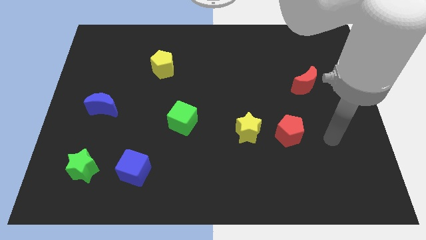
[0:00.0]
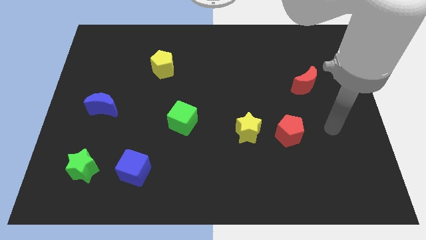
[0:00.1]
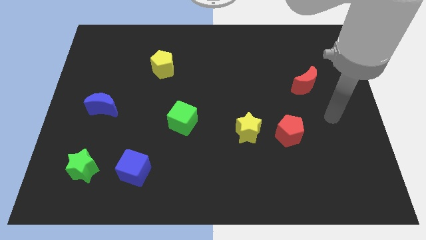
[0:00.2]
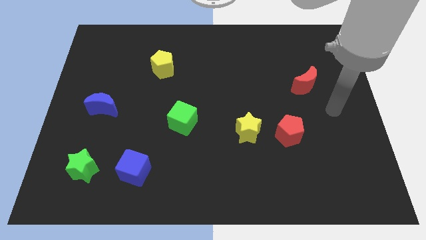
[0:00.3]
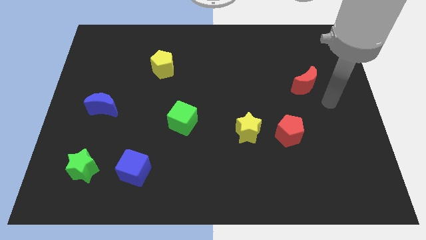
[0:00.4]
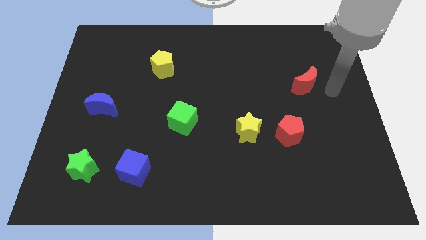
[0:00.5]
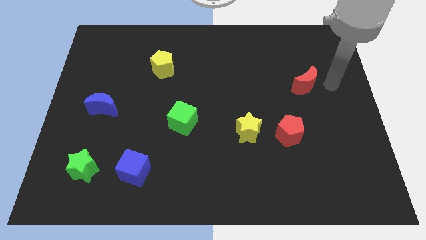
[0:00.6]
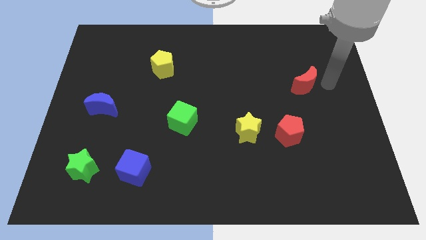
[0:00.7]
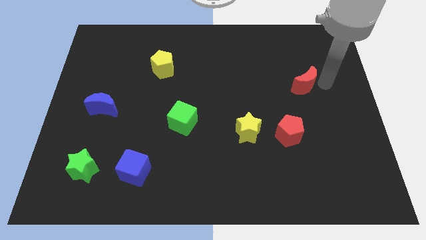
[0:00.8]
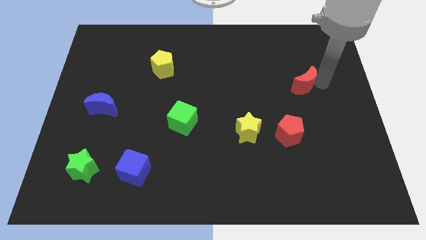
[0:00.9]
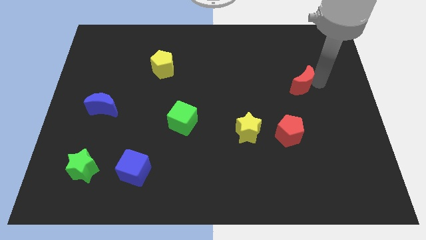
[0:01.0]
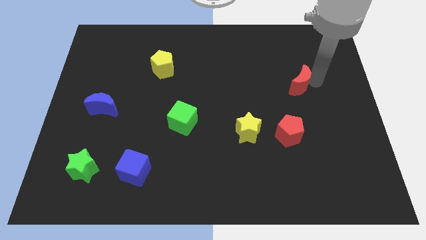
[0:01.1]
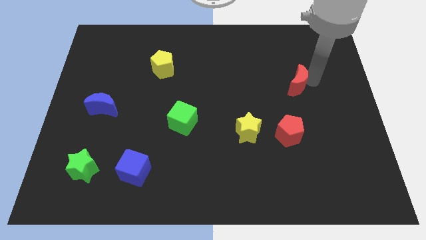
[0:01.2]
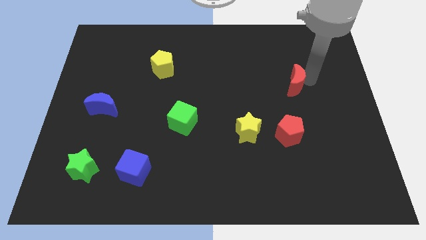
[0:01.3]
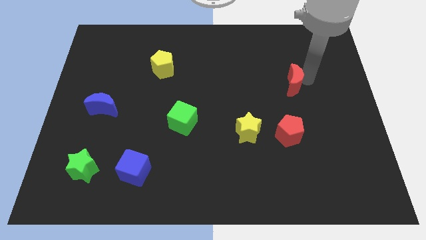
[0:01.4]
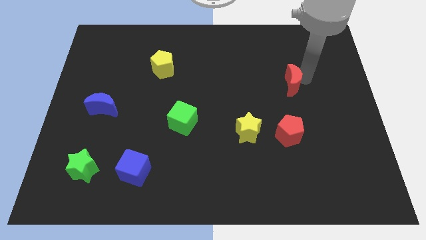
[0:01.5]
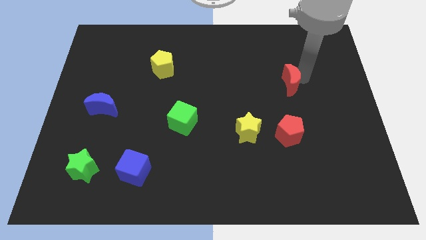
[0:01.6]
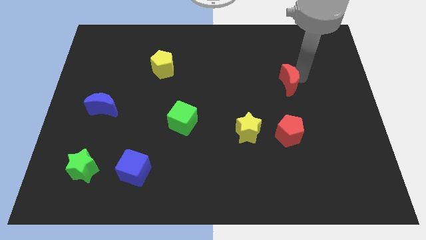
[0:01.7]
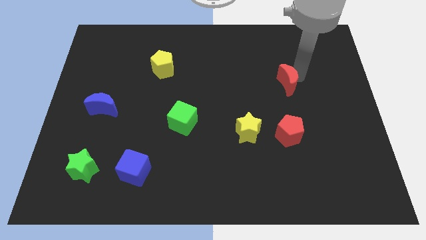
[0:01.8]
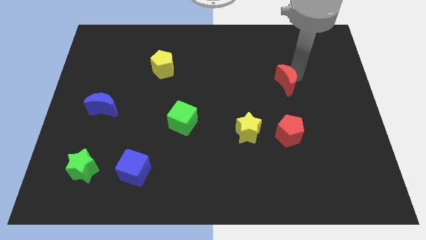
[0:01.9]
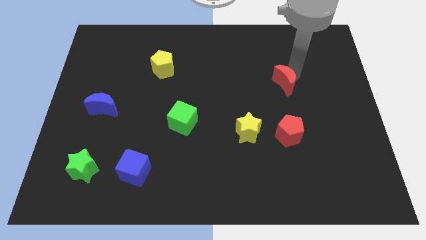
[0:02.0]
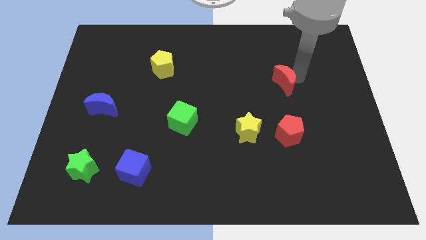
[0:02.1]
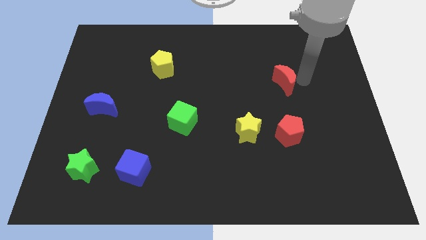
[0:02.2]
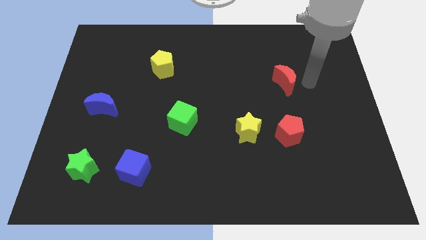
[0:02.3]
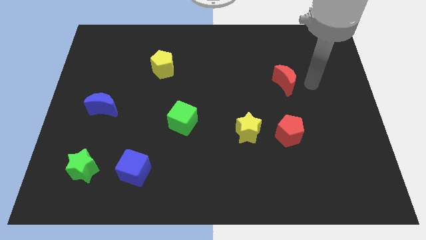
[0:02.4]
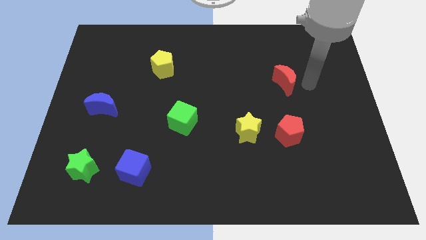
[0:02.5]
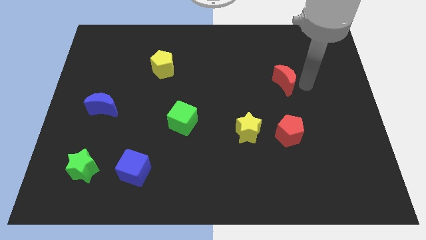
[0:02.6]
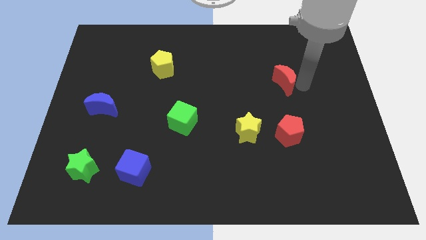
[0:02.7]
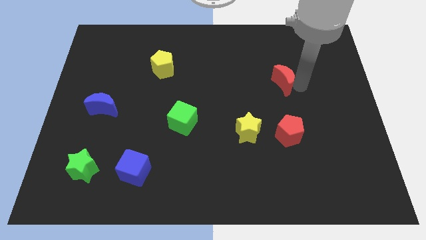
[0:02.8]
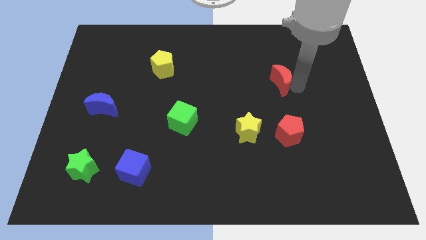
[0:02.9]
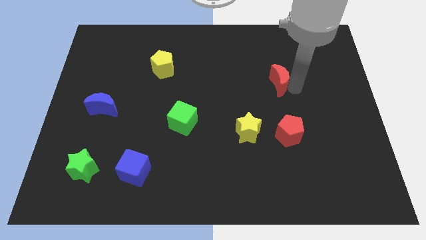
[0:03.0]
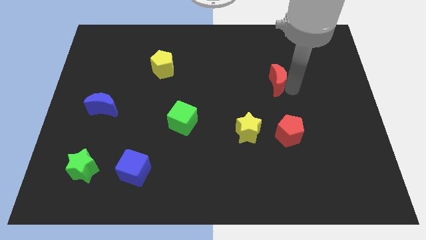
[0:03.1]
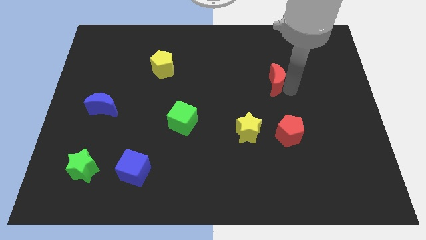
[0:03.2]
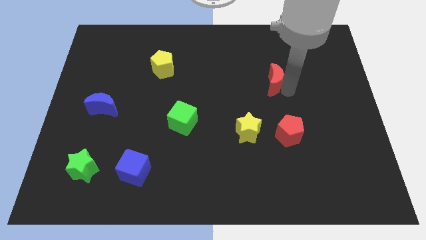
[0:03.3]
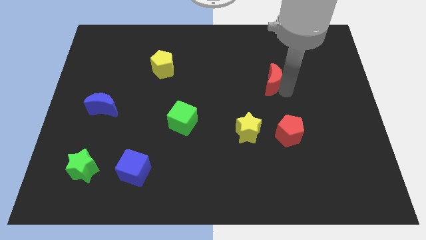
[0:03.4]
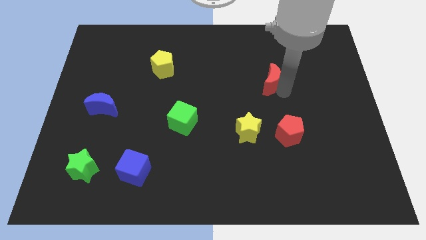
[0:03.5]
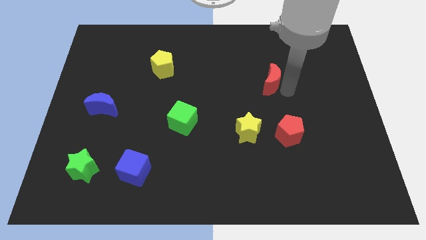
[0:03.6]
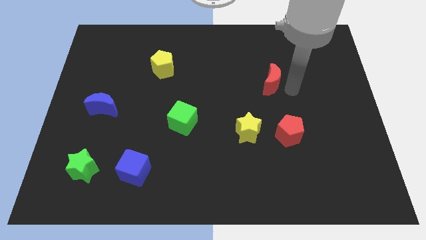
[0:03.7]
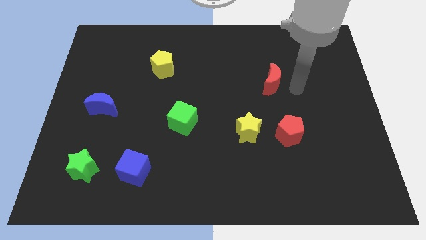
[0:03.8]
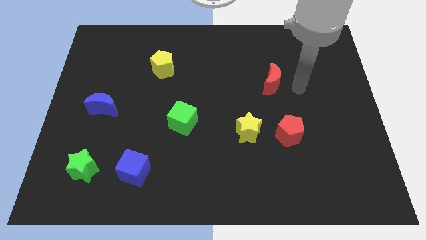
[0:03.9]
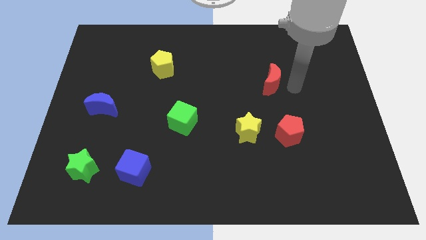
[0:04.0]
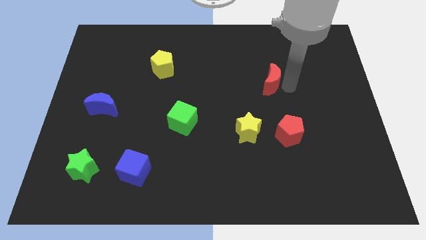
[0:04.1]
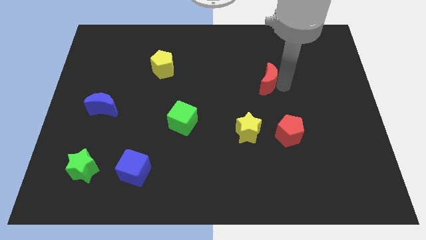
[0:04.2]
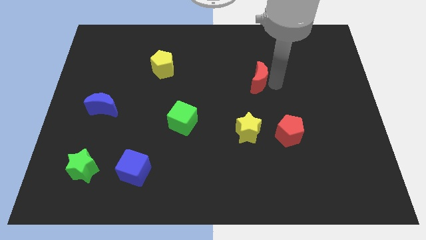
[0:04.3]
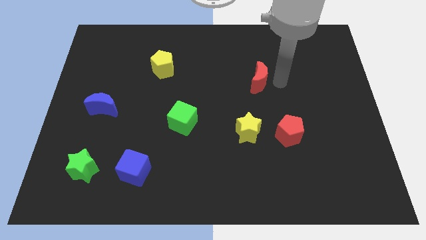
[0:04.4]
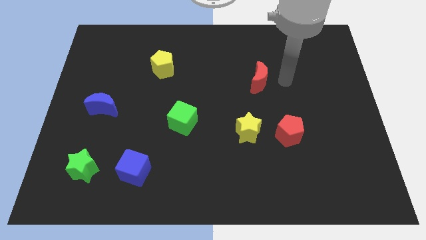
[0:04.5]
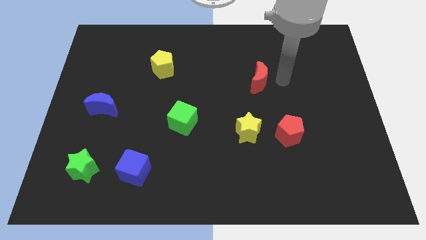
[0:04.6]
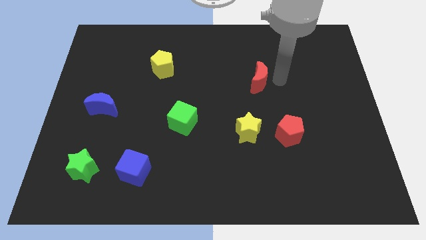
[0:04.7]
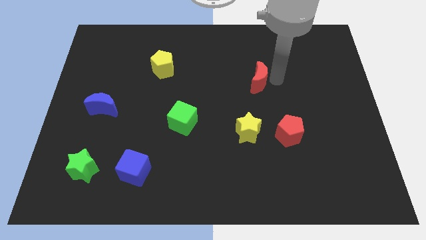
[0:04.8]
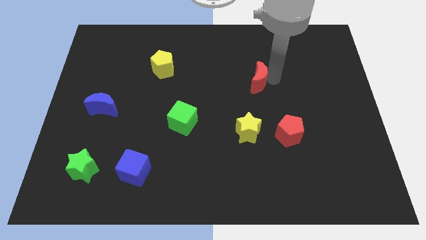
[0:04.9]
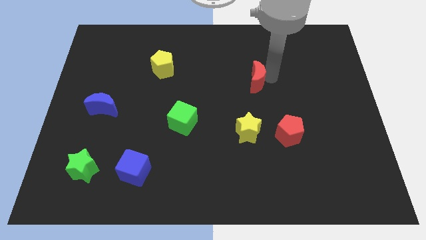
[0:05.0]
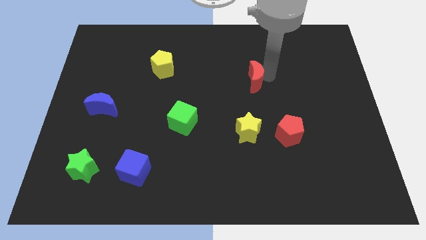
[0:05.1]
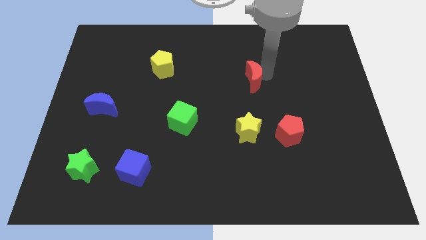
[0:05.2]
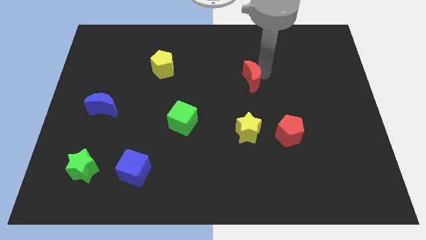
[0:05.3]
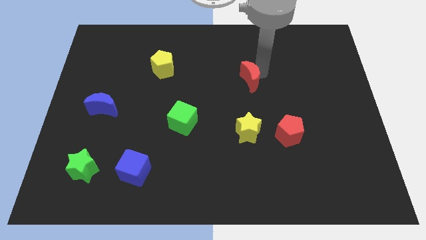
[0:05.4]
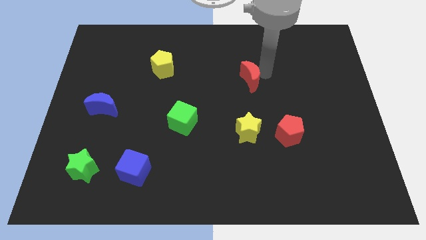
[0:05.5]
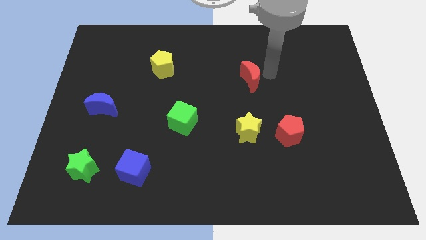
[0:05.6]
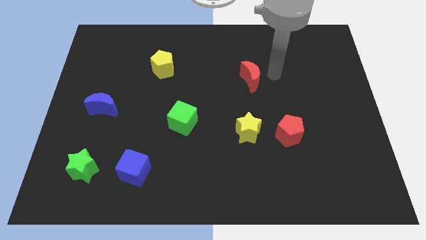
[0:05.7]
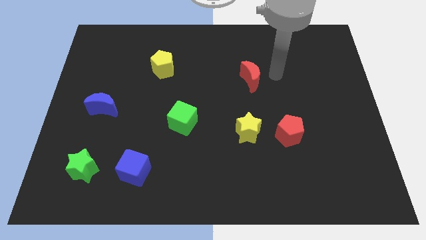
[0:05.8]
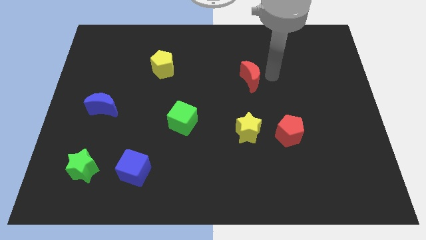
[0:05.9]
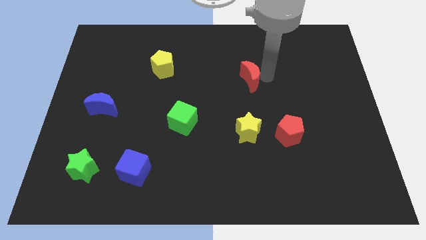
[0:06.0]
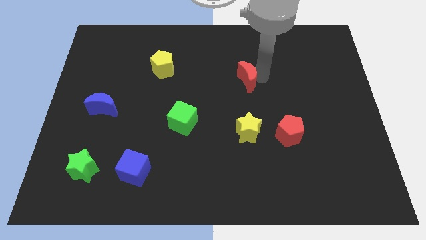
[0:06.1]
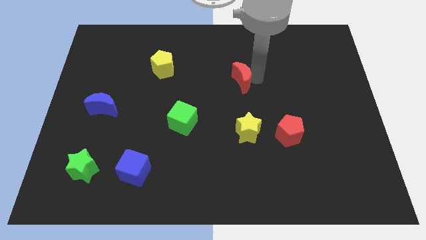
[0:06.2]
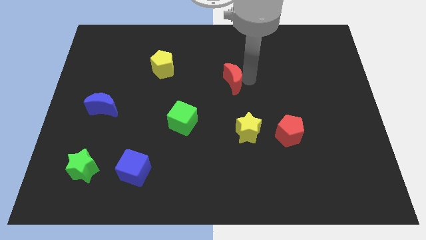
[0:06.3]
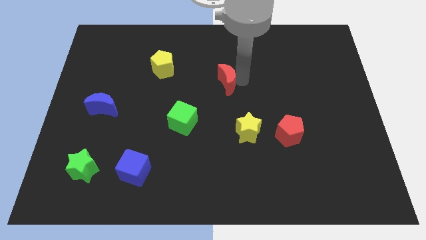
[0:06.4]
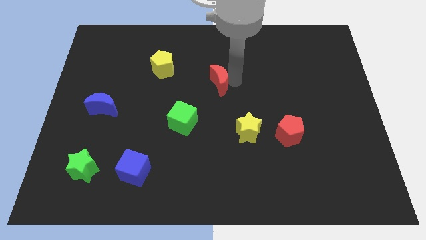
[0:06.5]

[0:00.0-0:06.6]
move the red moon to the left

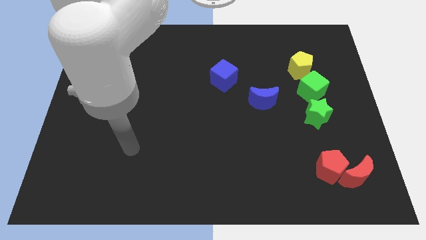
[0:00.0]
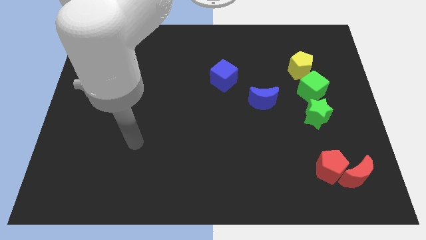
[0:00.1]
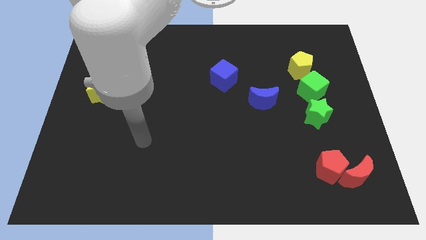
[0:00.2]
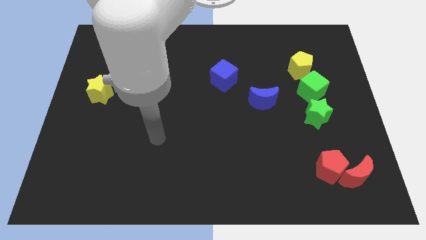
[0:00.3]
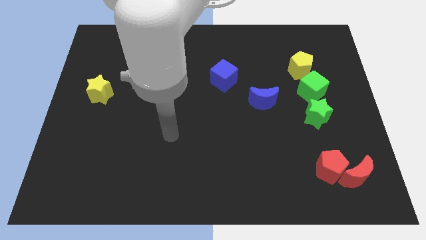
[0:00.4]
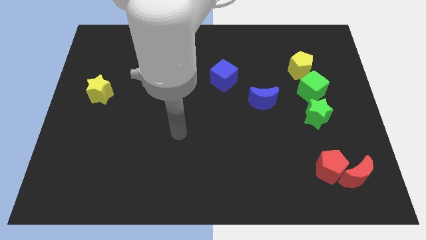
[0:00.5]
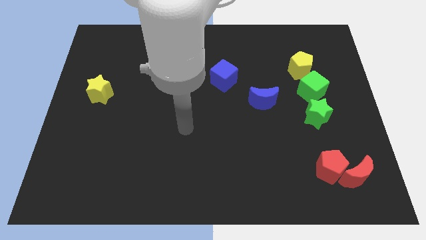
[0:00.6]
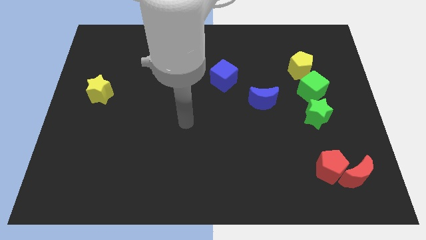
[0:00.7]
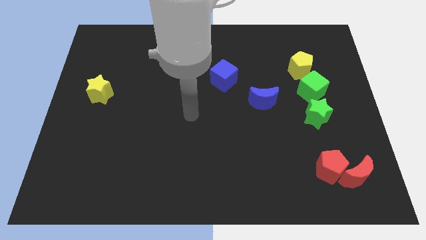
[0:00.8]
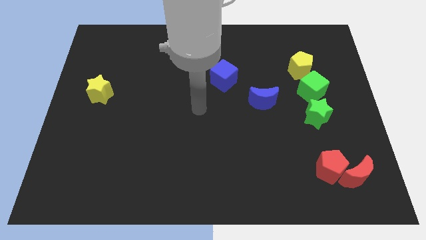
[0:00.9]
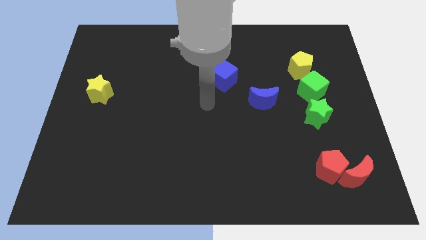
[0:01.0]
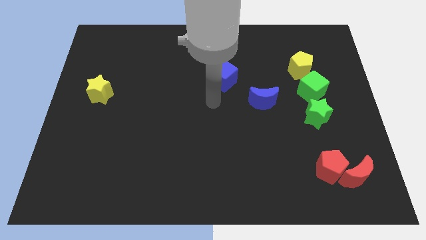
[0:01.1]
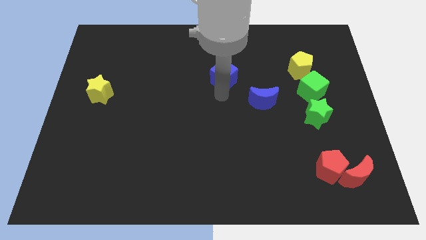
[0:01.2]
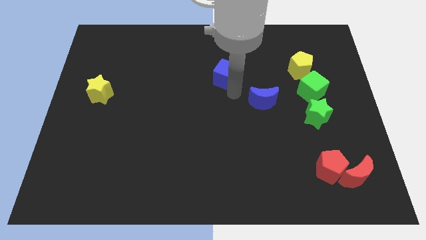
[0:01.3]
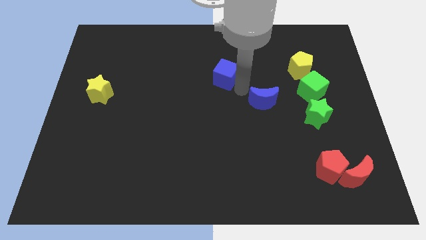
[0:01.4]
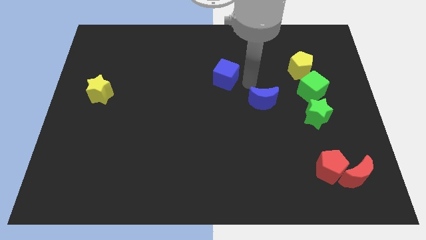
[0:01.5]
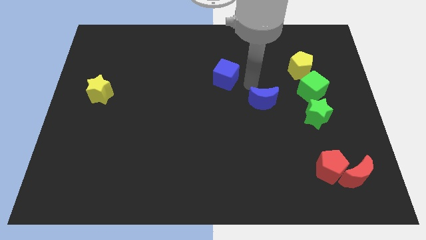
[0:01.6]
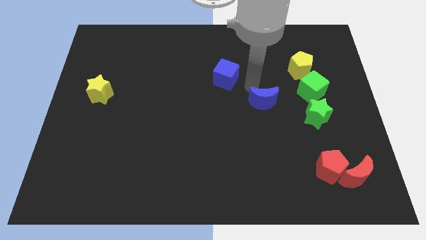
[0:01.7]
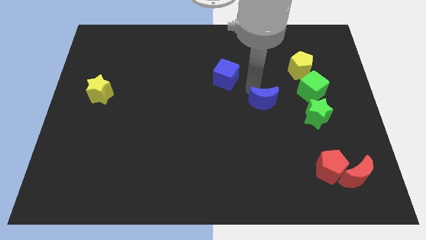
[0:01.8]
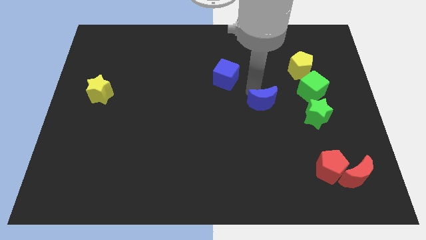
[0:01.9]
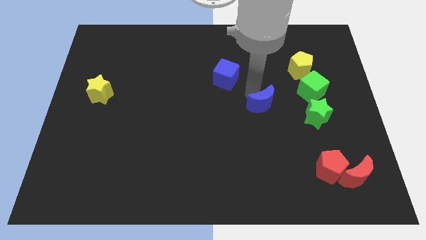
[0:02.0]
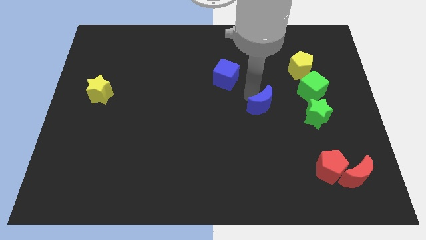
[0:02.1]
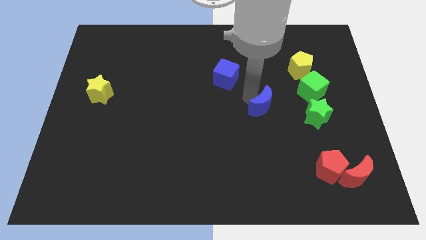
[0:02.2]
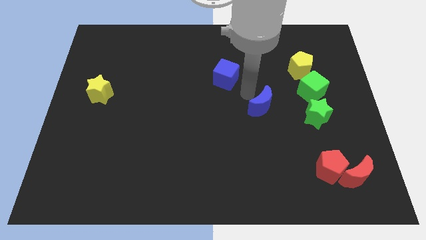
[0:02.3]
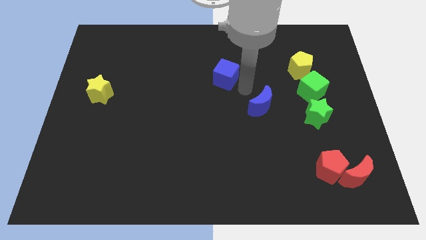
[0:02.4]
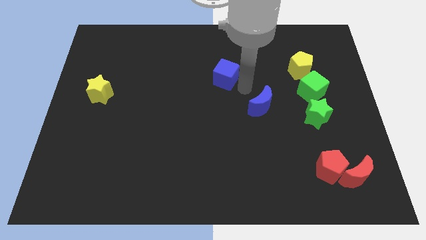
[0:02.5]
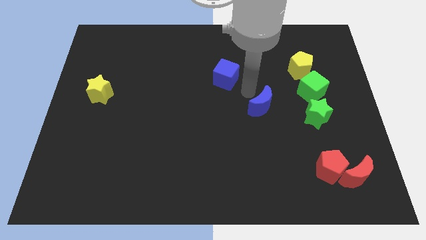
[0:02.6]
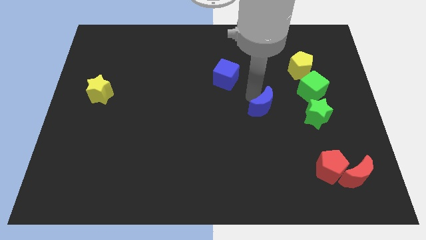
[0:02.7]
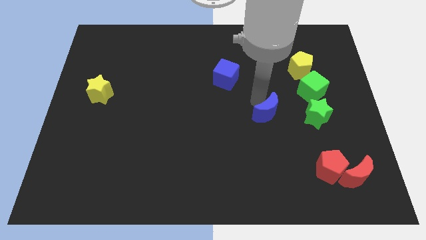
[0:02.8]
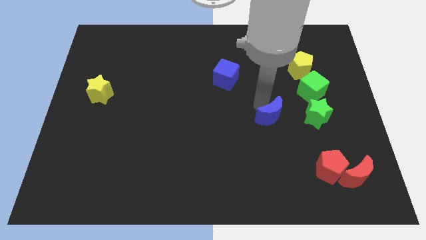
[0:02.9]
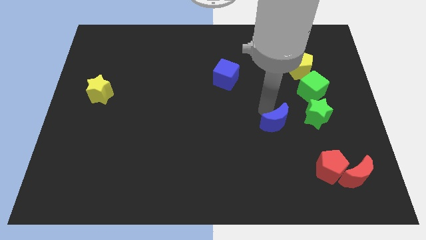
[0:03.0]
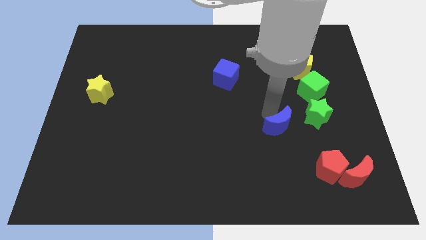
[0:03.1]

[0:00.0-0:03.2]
push the blue moon a little bit diagonally downwards and to the right
